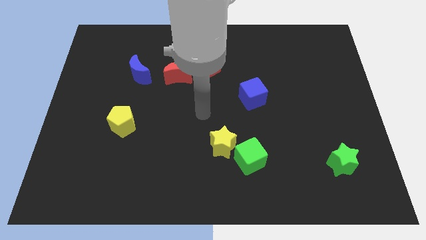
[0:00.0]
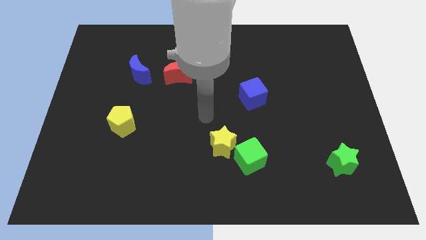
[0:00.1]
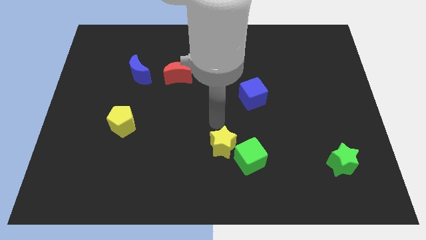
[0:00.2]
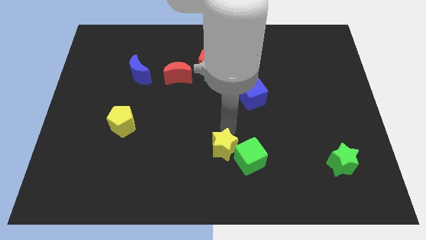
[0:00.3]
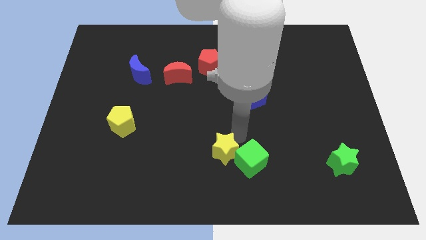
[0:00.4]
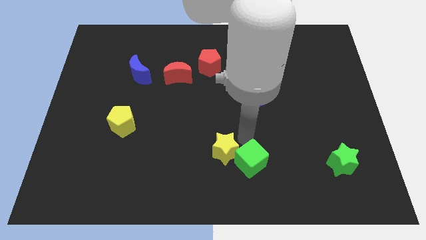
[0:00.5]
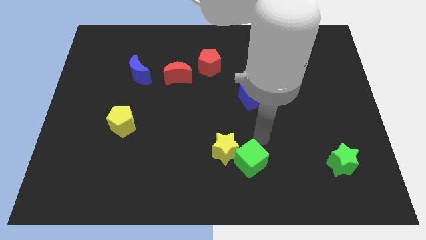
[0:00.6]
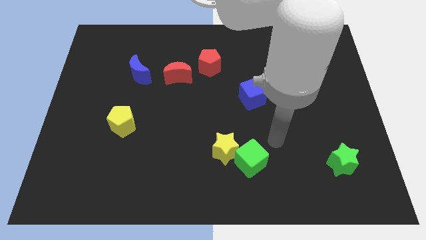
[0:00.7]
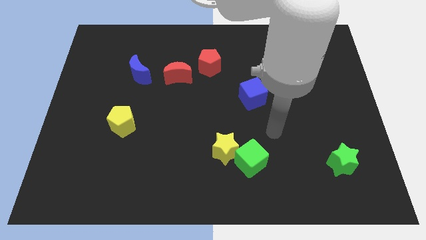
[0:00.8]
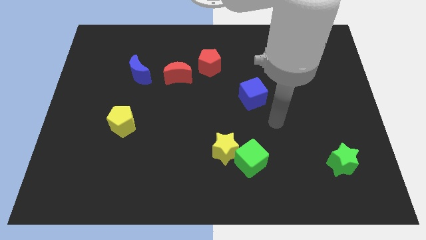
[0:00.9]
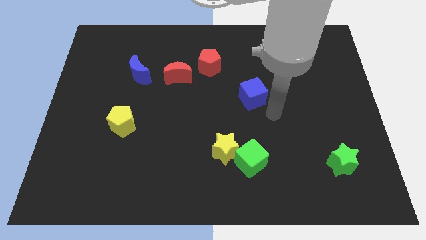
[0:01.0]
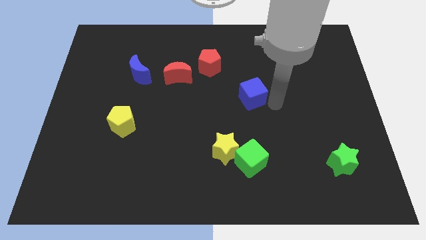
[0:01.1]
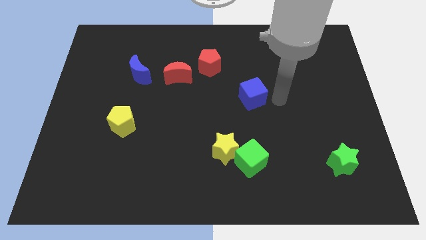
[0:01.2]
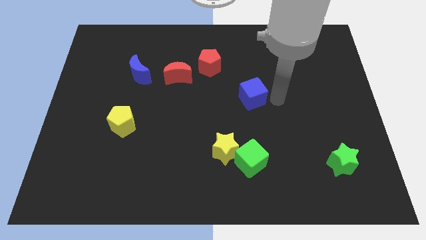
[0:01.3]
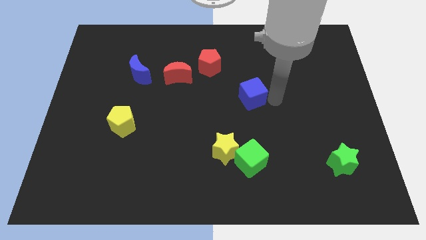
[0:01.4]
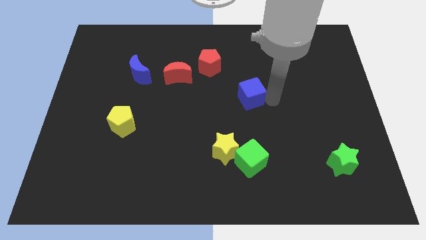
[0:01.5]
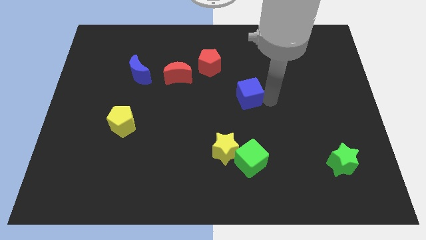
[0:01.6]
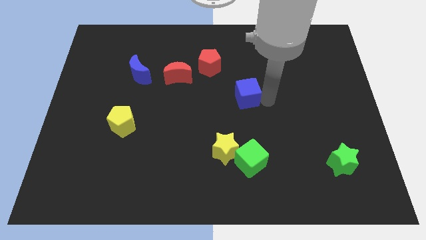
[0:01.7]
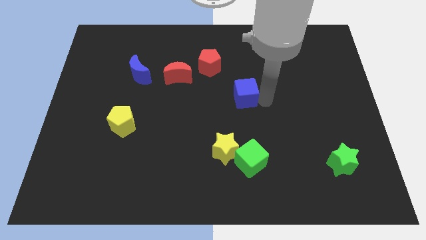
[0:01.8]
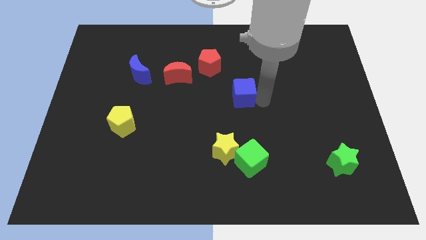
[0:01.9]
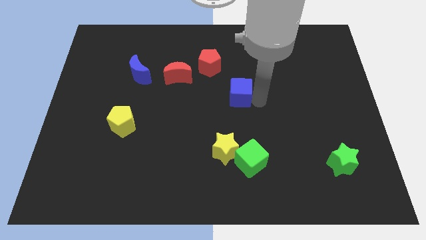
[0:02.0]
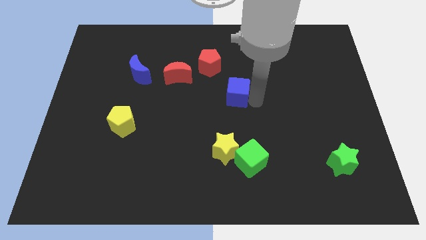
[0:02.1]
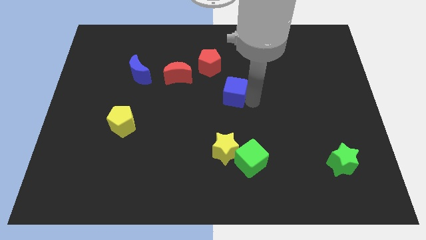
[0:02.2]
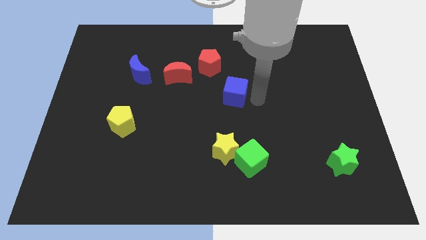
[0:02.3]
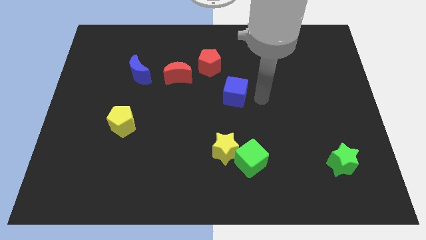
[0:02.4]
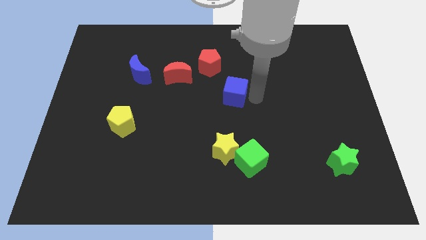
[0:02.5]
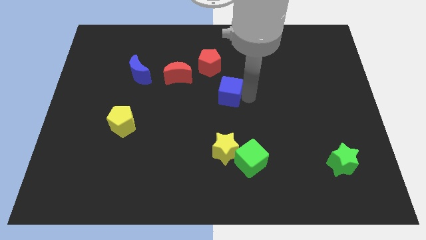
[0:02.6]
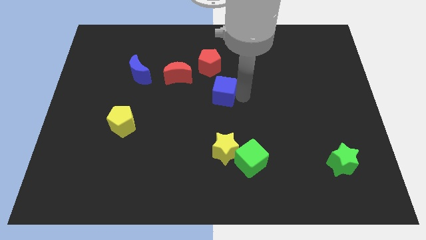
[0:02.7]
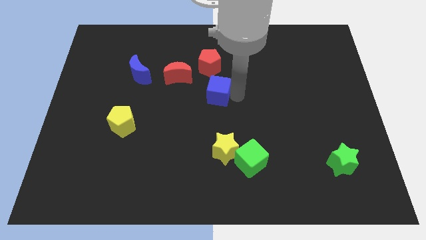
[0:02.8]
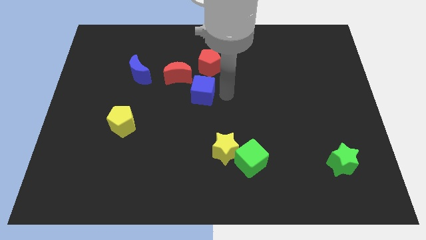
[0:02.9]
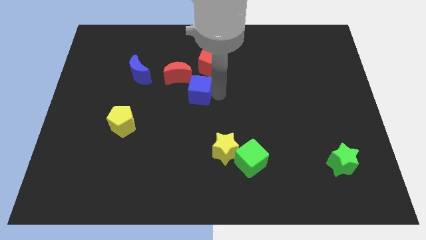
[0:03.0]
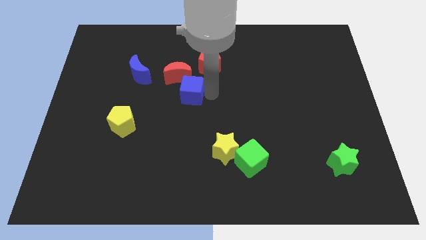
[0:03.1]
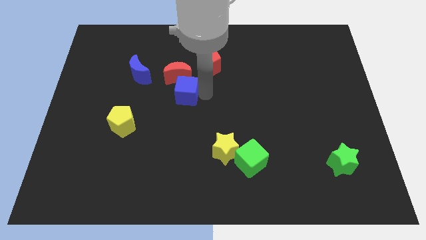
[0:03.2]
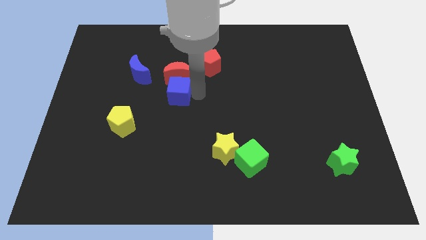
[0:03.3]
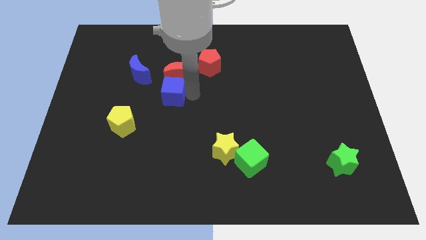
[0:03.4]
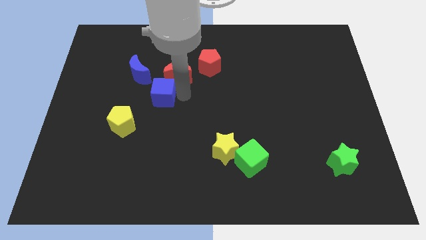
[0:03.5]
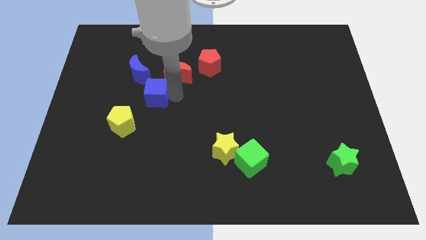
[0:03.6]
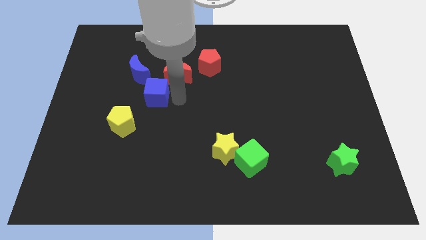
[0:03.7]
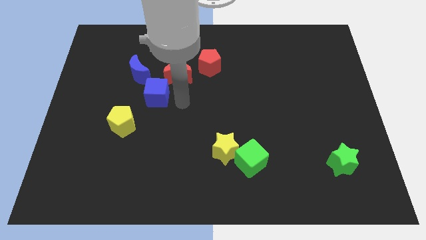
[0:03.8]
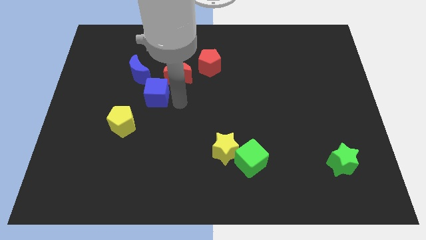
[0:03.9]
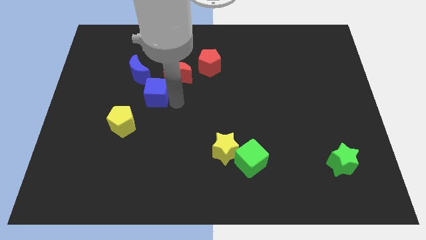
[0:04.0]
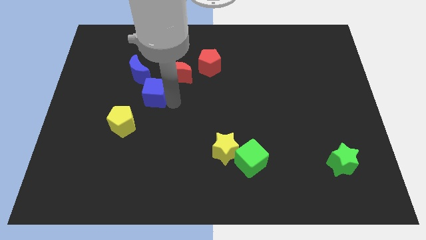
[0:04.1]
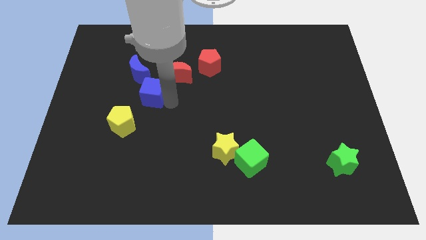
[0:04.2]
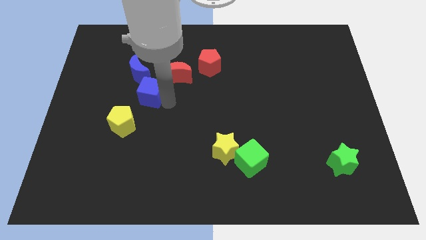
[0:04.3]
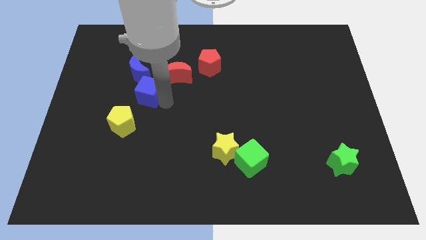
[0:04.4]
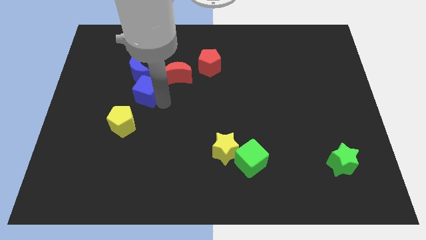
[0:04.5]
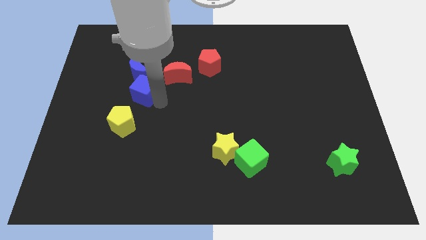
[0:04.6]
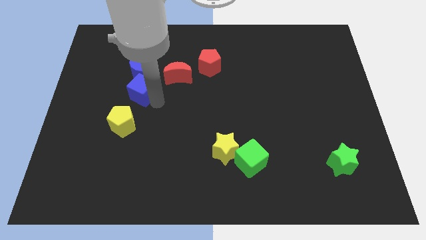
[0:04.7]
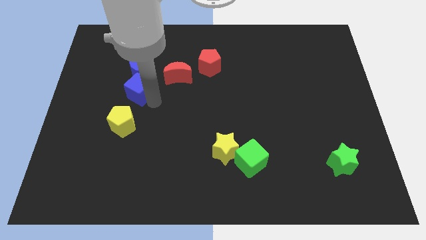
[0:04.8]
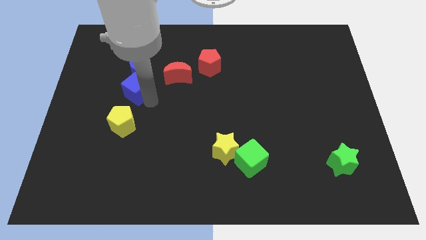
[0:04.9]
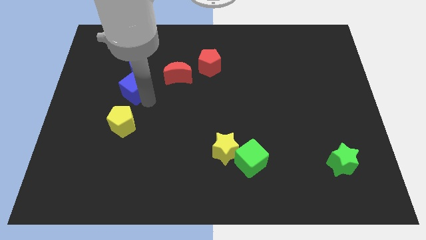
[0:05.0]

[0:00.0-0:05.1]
slide the blue cube left of the red moon

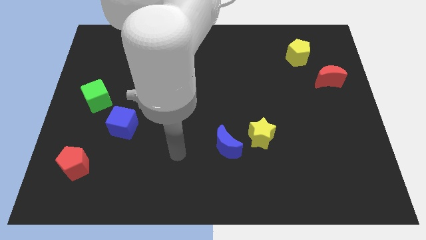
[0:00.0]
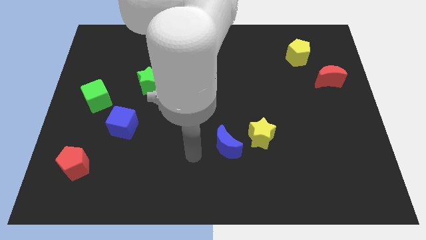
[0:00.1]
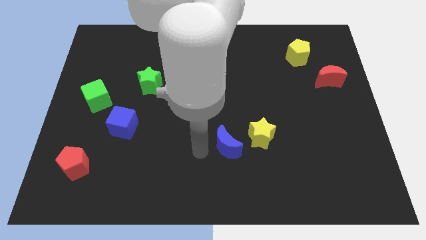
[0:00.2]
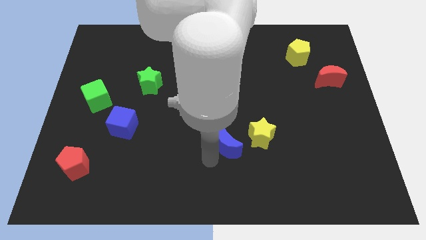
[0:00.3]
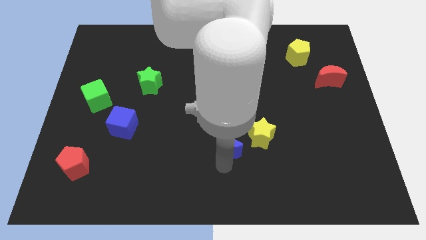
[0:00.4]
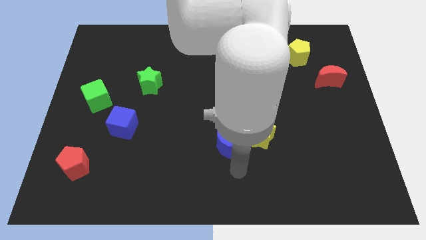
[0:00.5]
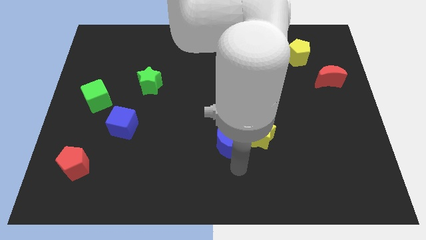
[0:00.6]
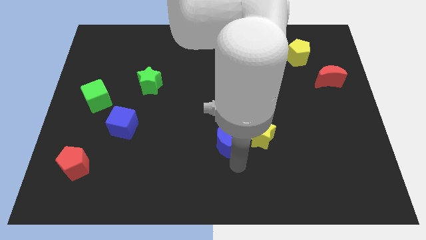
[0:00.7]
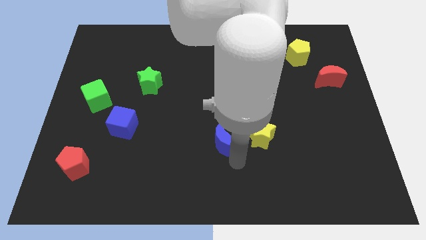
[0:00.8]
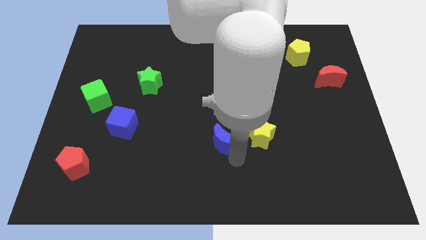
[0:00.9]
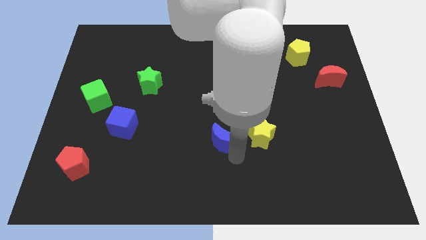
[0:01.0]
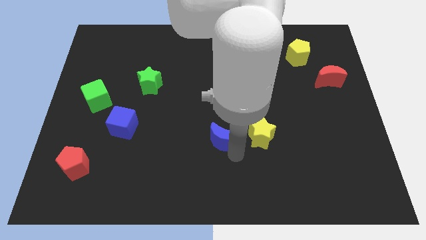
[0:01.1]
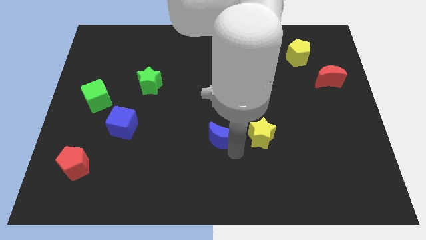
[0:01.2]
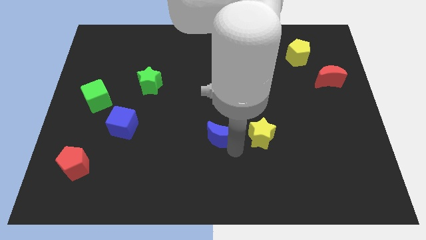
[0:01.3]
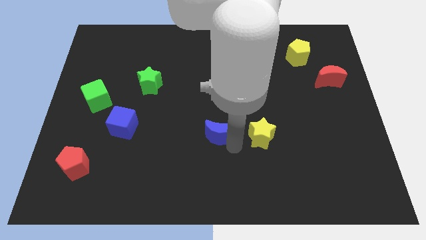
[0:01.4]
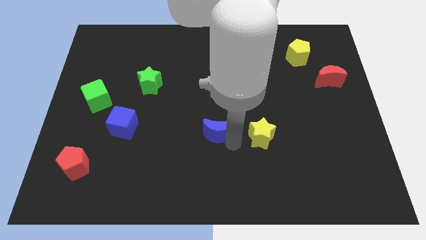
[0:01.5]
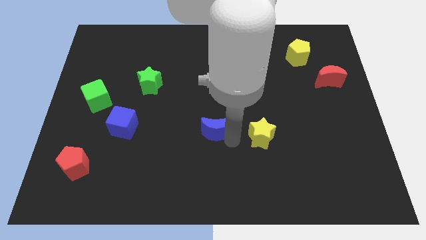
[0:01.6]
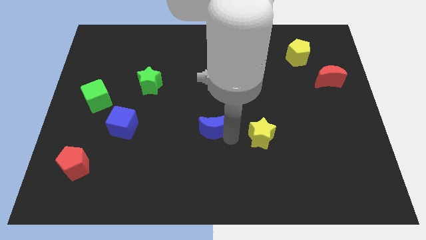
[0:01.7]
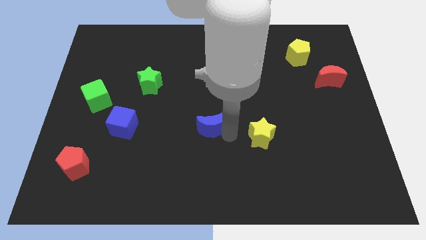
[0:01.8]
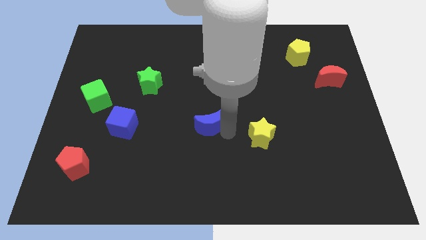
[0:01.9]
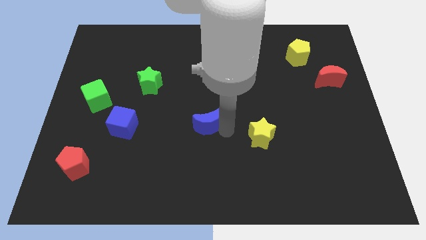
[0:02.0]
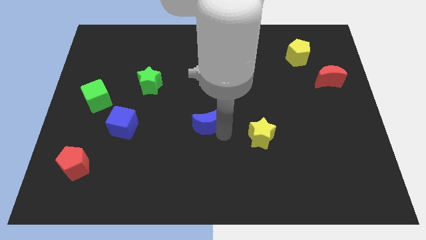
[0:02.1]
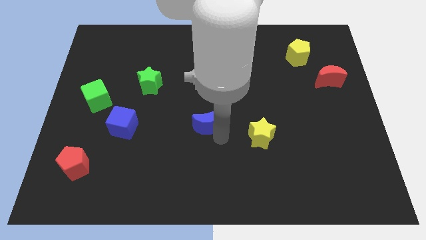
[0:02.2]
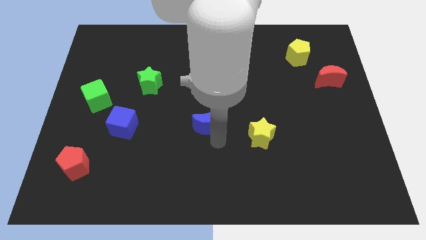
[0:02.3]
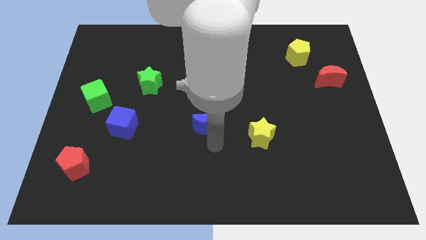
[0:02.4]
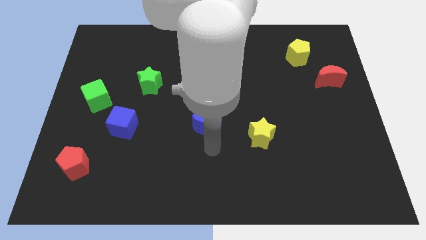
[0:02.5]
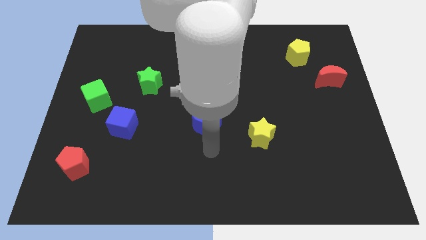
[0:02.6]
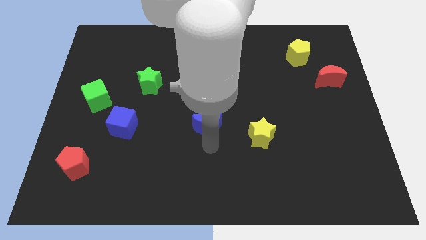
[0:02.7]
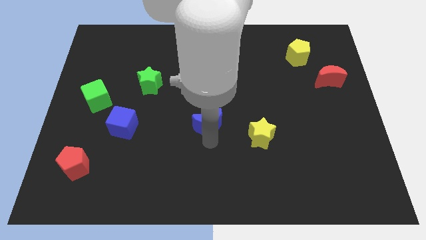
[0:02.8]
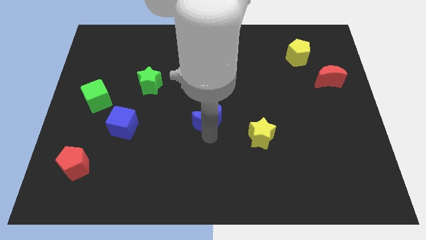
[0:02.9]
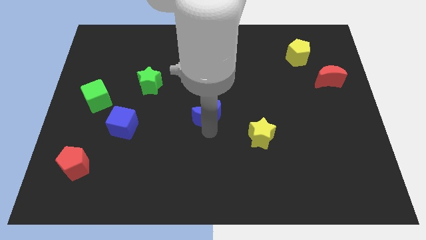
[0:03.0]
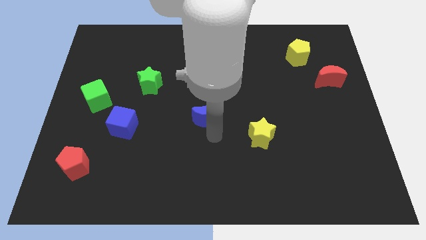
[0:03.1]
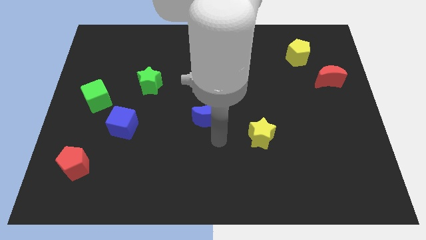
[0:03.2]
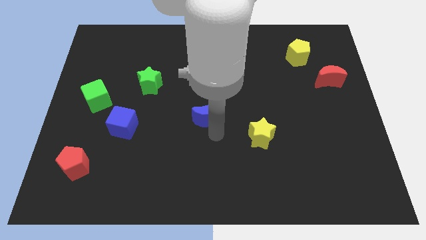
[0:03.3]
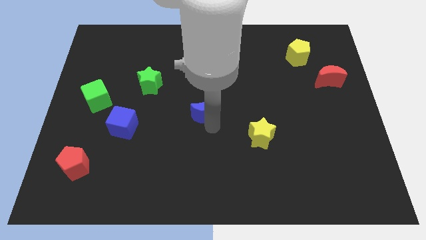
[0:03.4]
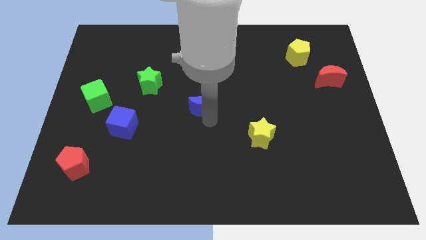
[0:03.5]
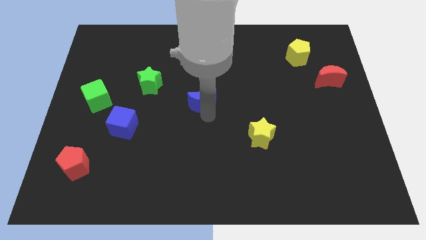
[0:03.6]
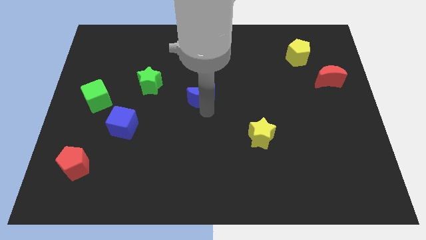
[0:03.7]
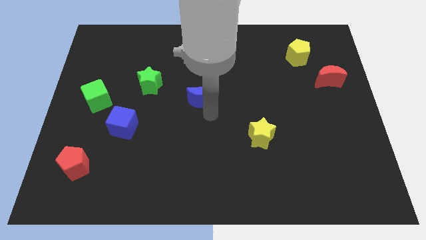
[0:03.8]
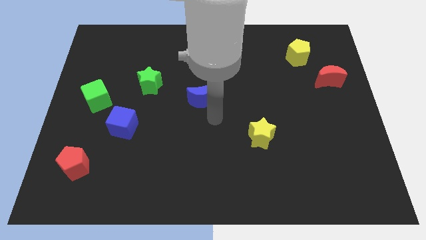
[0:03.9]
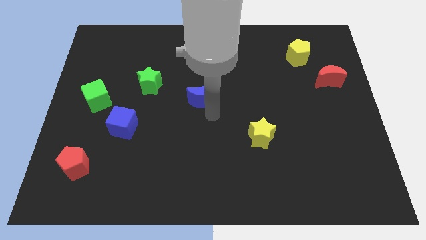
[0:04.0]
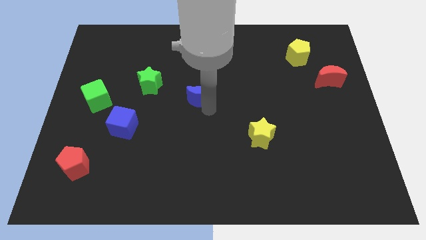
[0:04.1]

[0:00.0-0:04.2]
push the blue moon just right of the green star
